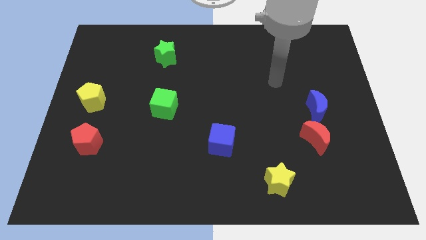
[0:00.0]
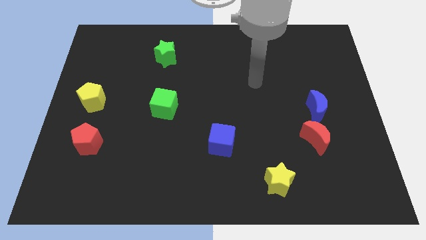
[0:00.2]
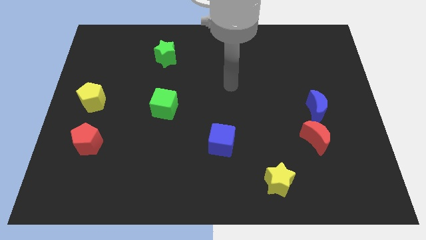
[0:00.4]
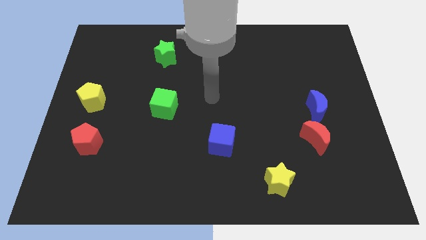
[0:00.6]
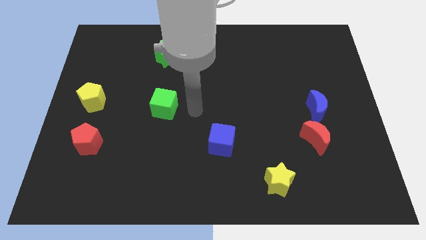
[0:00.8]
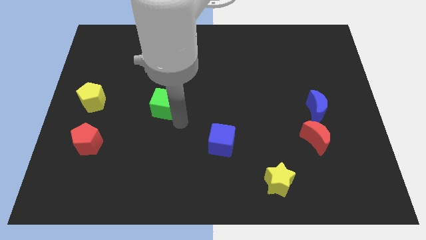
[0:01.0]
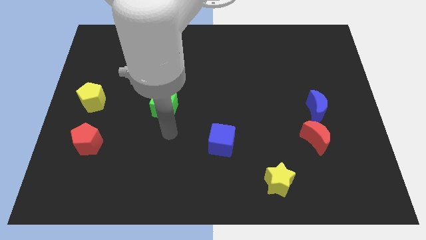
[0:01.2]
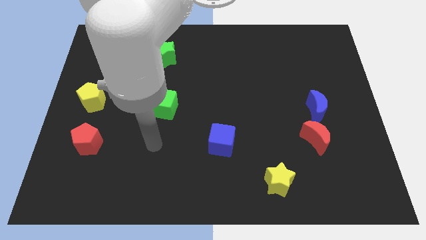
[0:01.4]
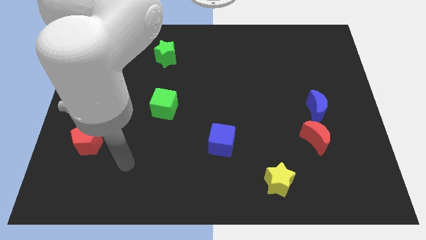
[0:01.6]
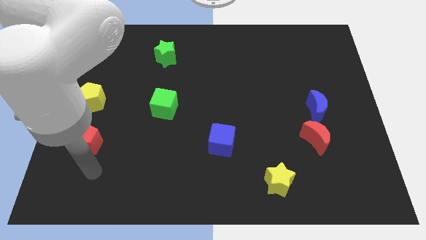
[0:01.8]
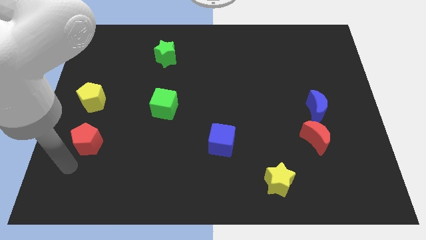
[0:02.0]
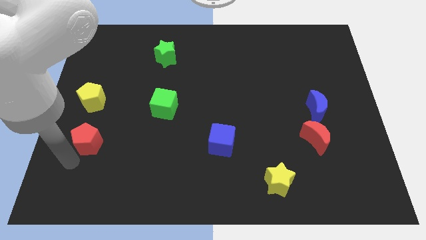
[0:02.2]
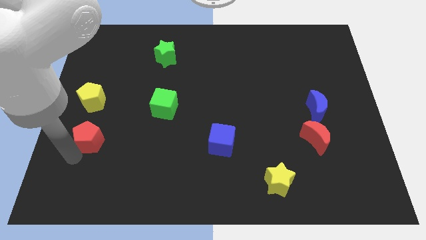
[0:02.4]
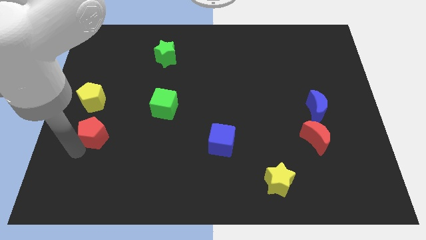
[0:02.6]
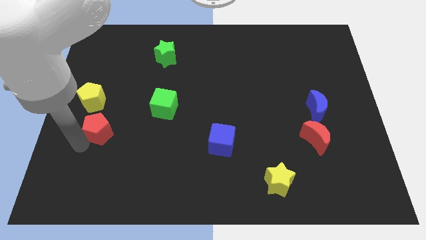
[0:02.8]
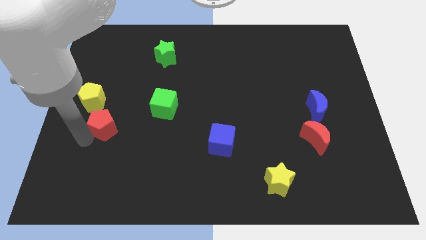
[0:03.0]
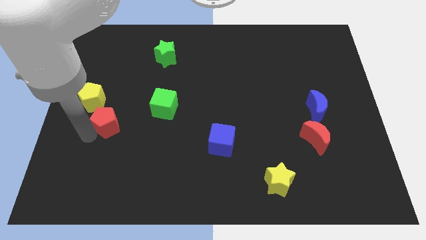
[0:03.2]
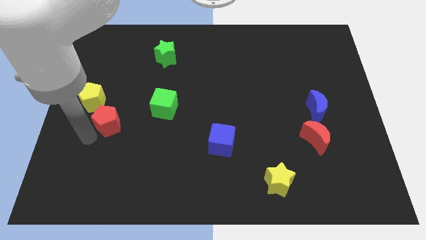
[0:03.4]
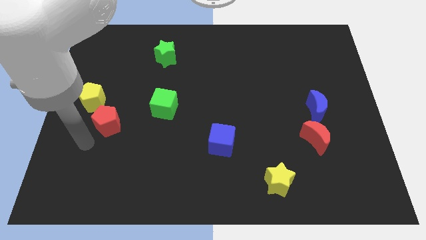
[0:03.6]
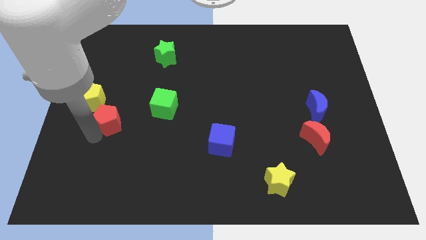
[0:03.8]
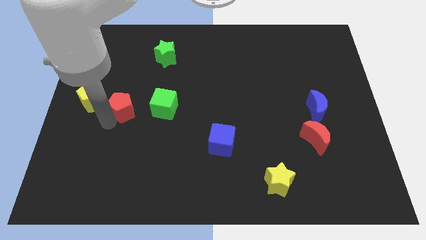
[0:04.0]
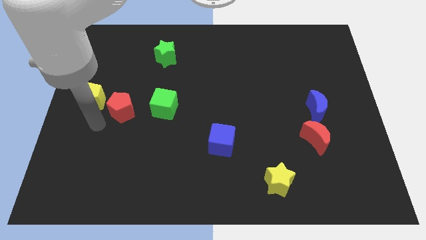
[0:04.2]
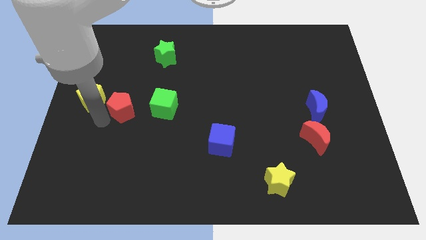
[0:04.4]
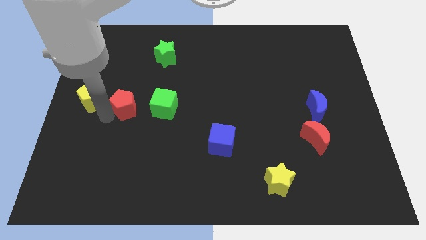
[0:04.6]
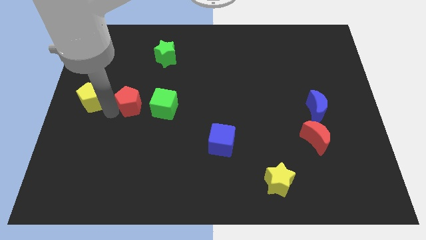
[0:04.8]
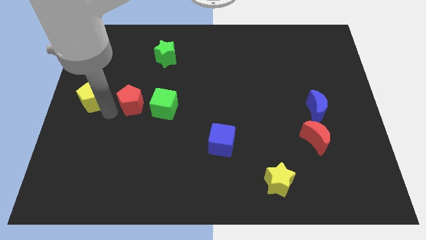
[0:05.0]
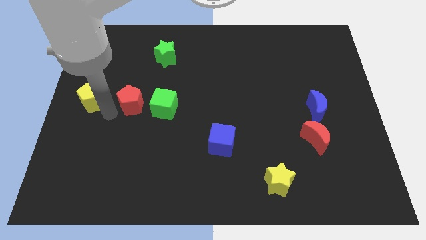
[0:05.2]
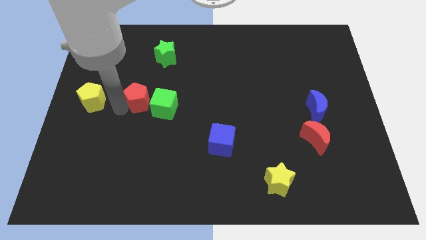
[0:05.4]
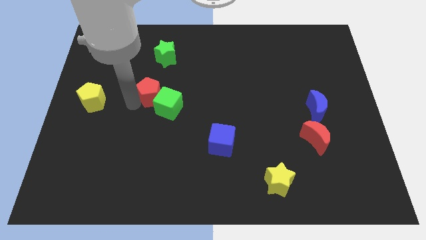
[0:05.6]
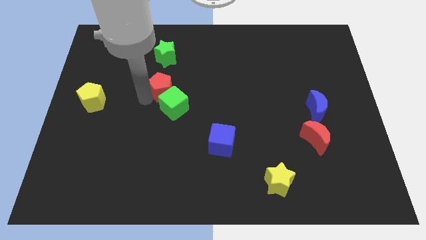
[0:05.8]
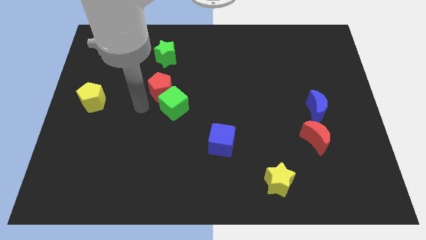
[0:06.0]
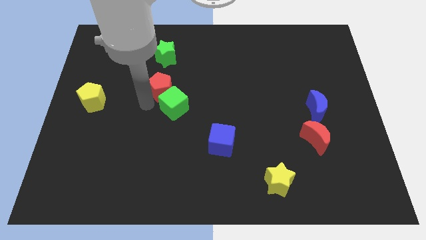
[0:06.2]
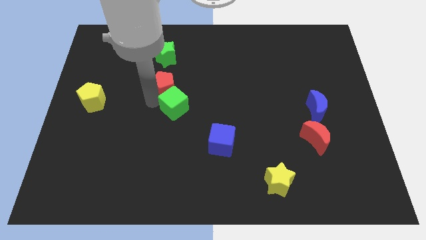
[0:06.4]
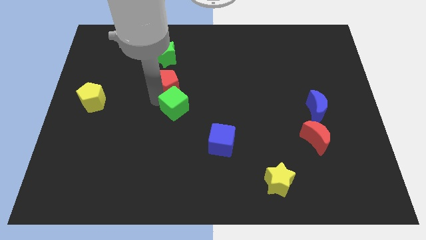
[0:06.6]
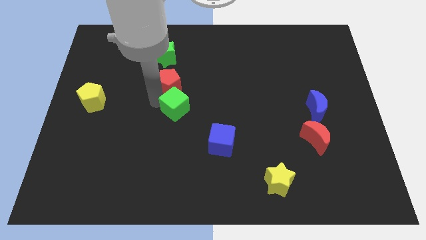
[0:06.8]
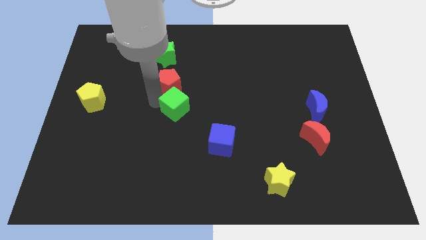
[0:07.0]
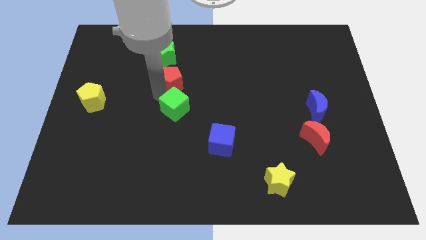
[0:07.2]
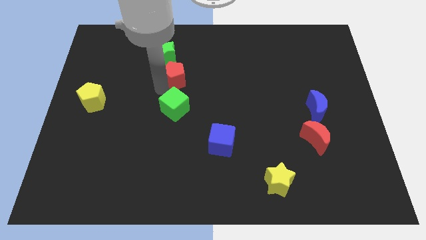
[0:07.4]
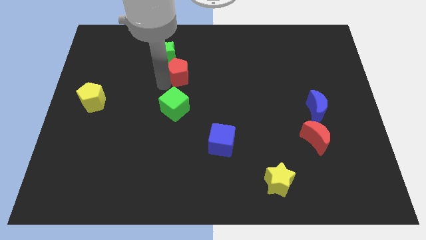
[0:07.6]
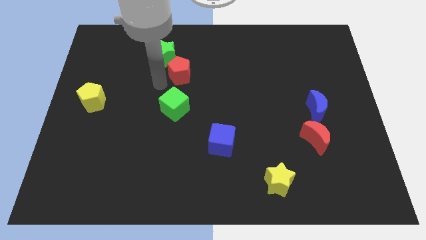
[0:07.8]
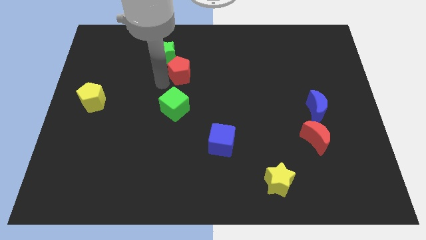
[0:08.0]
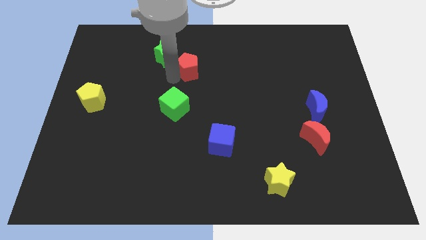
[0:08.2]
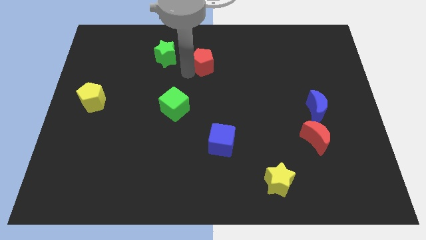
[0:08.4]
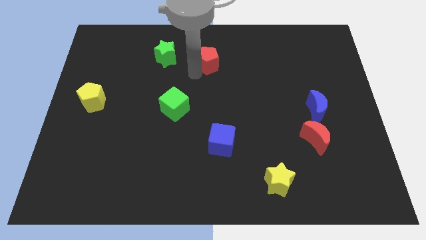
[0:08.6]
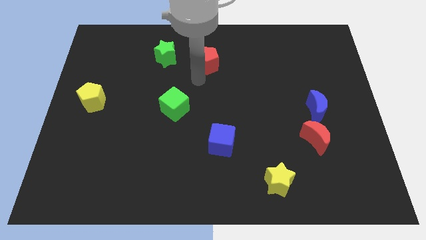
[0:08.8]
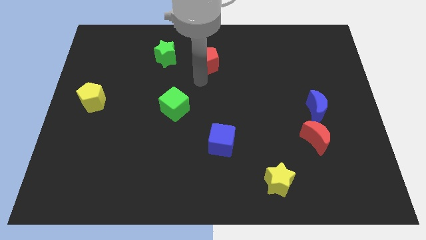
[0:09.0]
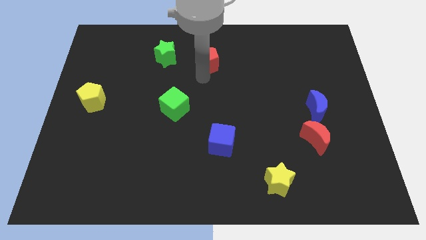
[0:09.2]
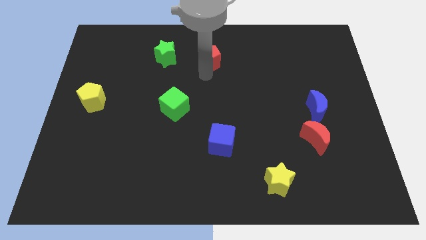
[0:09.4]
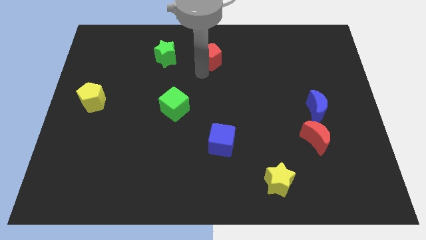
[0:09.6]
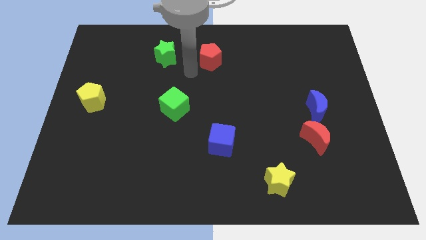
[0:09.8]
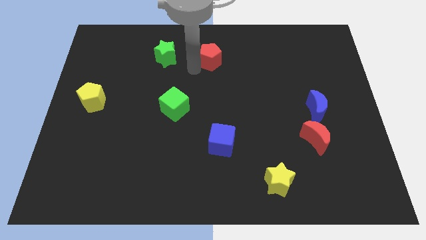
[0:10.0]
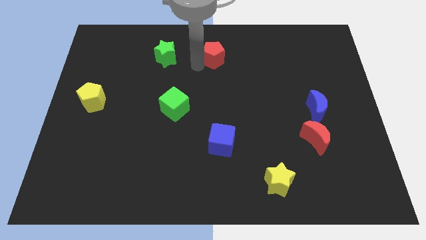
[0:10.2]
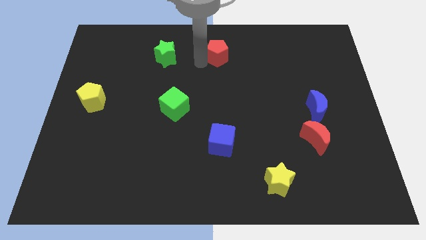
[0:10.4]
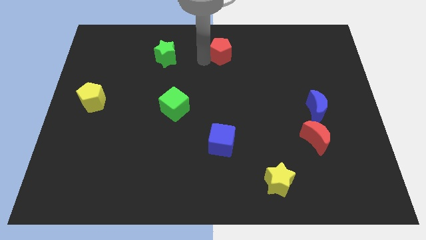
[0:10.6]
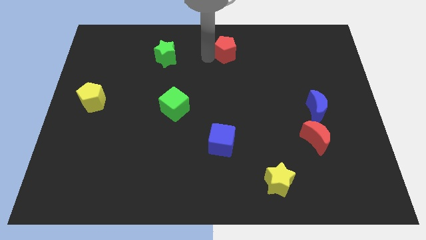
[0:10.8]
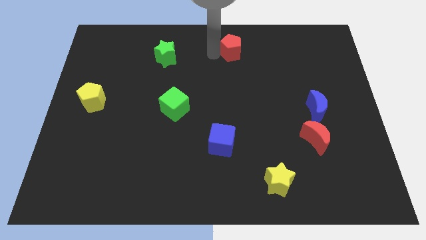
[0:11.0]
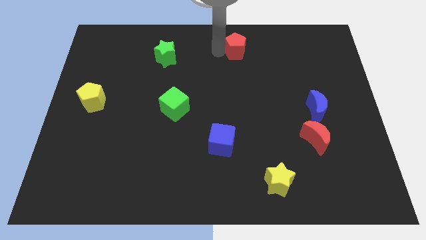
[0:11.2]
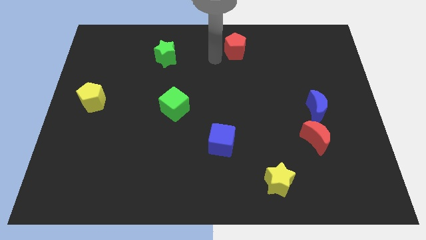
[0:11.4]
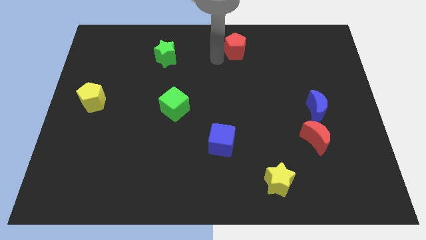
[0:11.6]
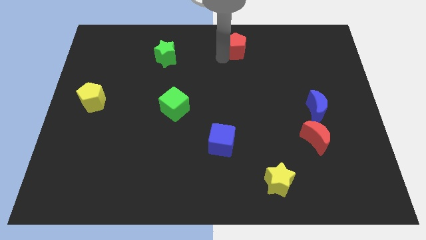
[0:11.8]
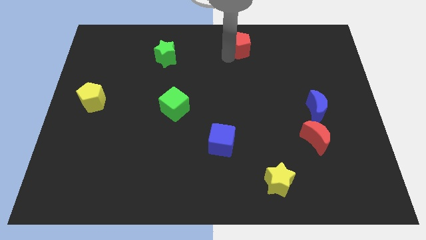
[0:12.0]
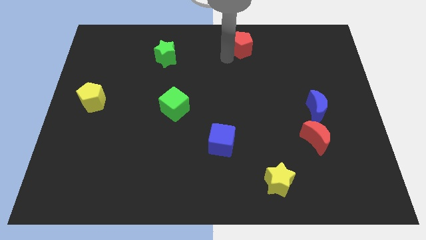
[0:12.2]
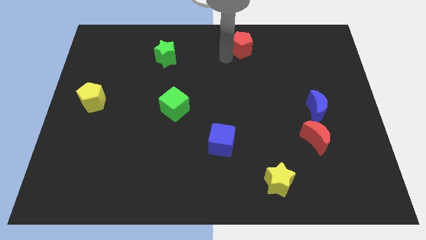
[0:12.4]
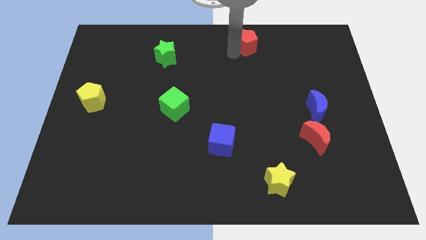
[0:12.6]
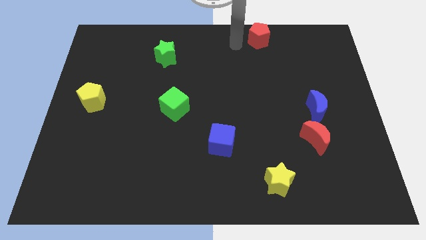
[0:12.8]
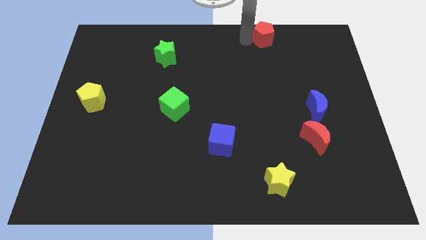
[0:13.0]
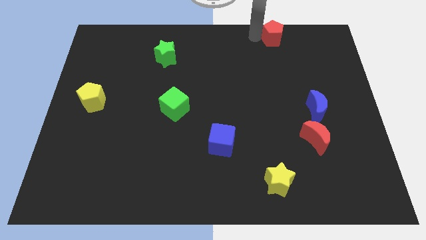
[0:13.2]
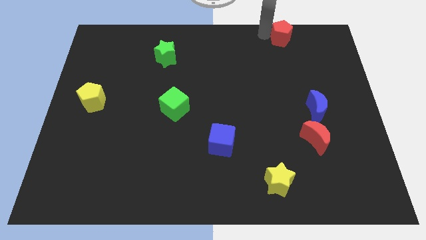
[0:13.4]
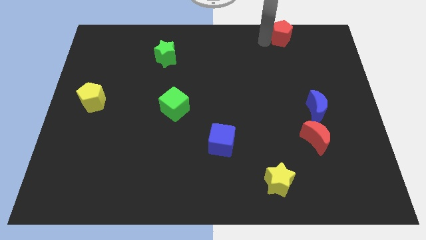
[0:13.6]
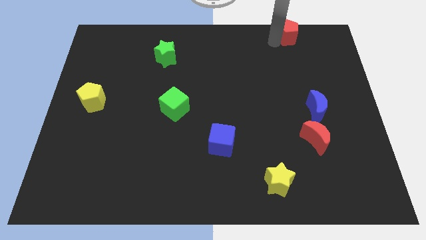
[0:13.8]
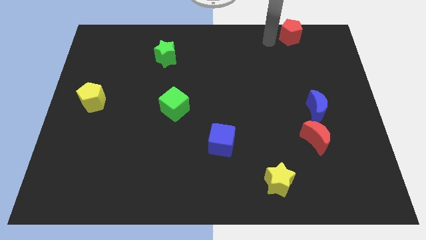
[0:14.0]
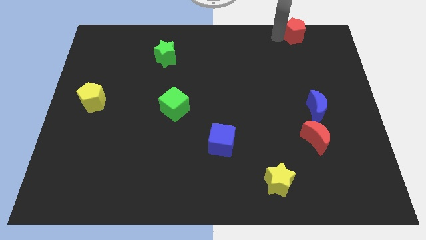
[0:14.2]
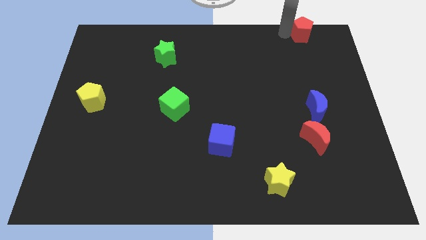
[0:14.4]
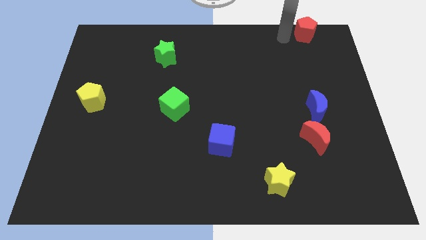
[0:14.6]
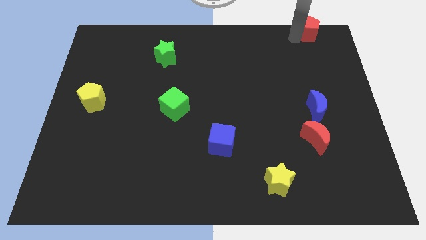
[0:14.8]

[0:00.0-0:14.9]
move the red pentagon to the upper right corner
